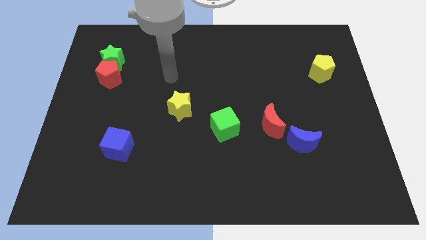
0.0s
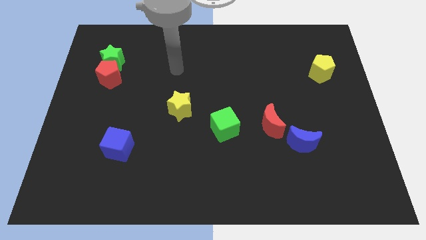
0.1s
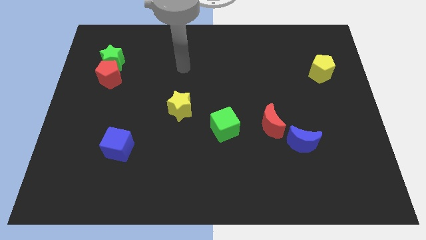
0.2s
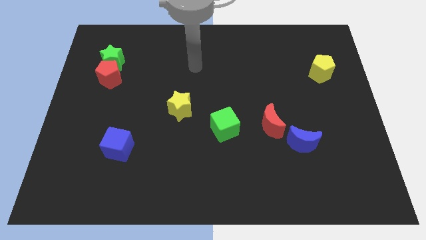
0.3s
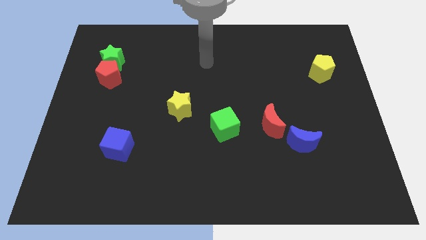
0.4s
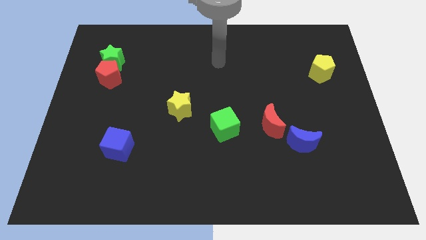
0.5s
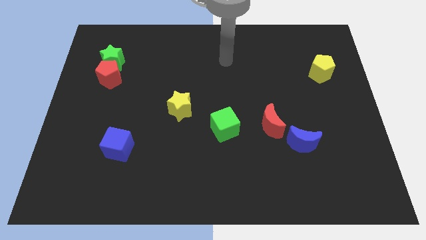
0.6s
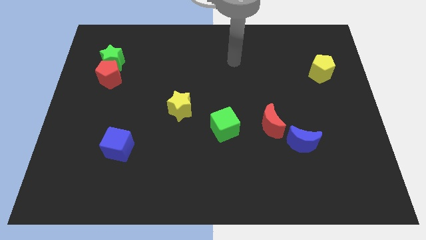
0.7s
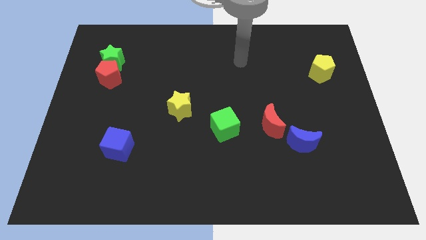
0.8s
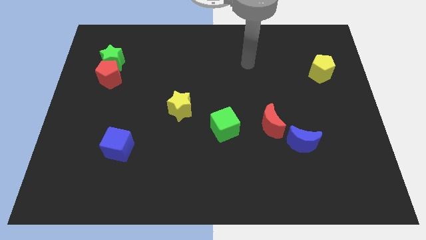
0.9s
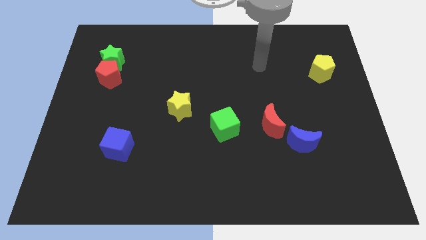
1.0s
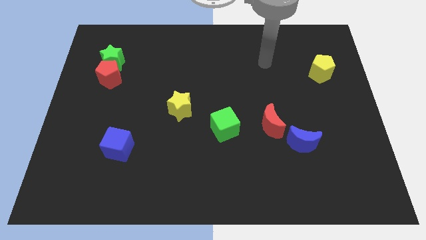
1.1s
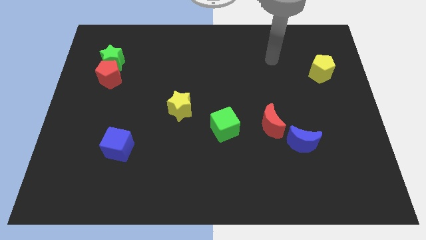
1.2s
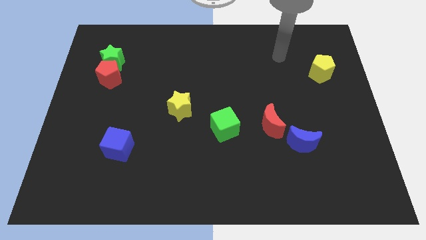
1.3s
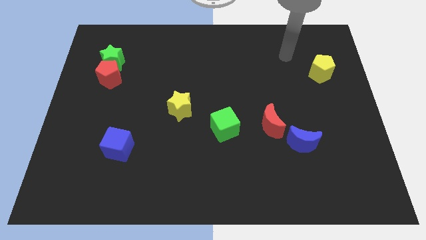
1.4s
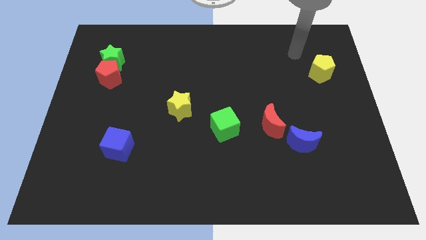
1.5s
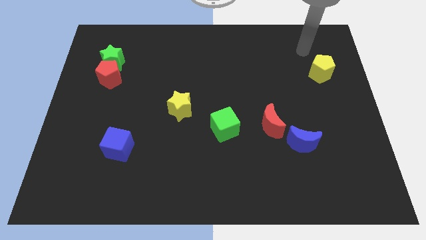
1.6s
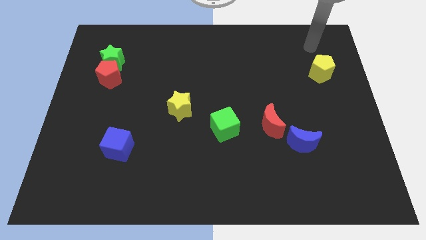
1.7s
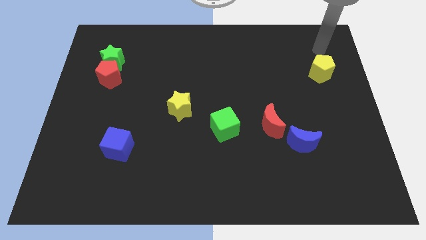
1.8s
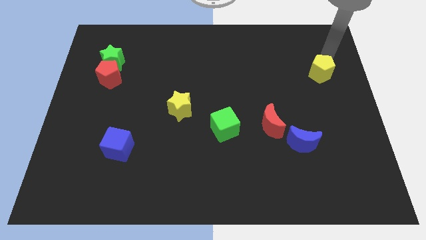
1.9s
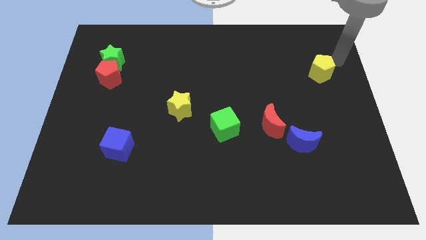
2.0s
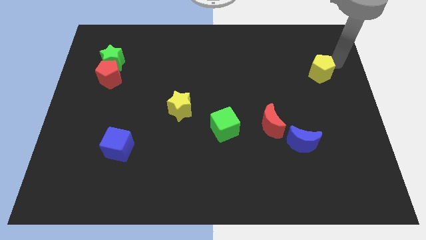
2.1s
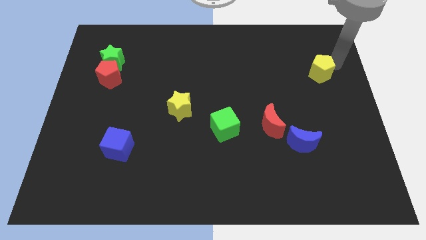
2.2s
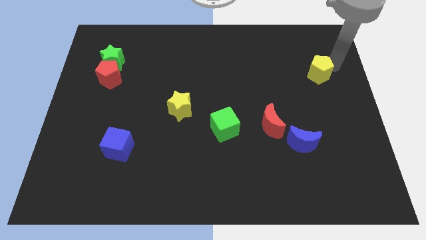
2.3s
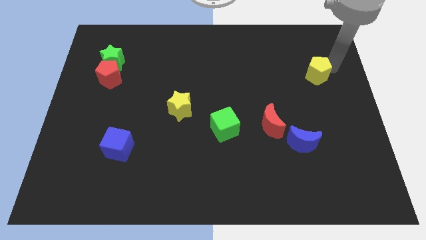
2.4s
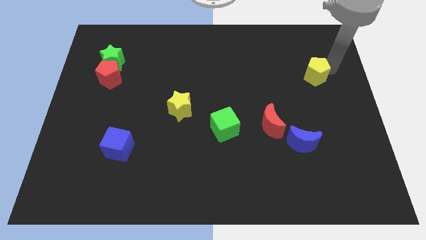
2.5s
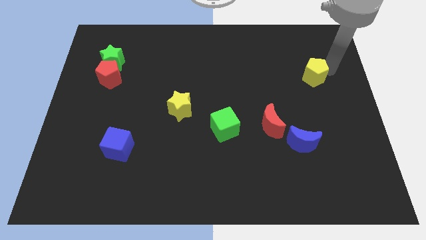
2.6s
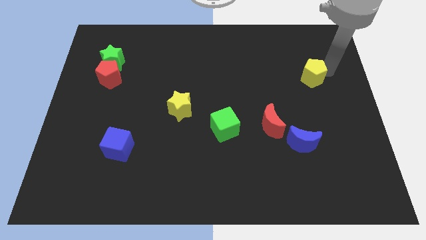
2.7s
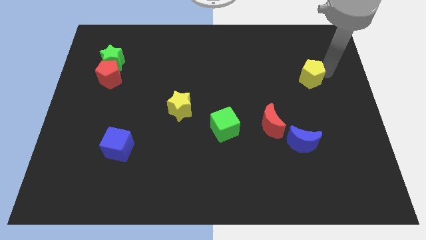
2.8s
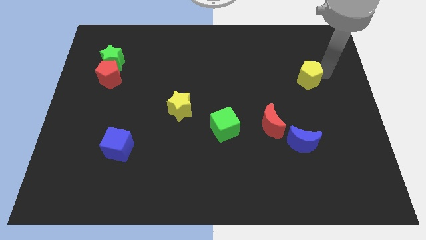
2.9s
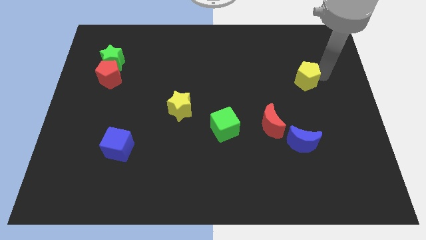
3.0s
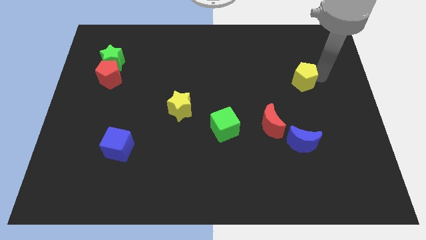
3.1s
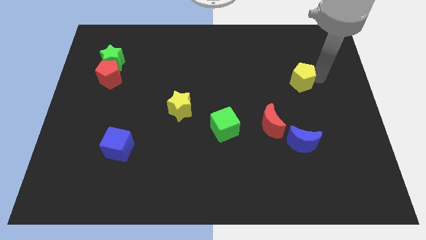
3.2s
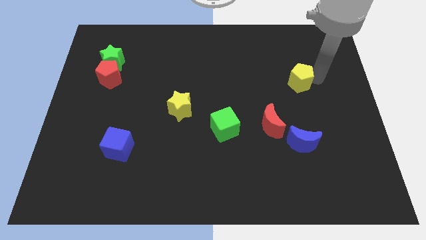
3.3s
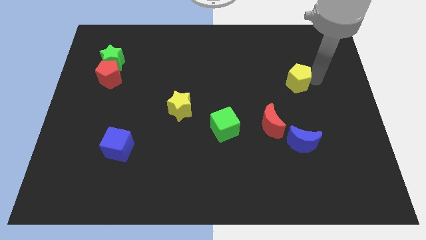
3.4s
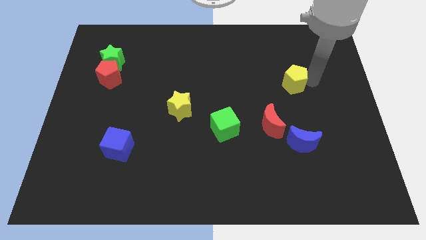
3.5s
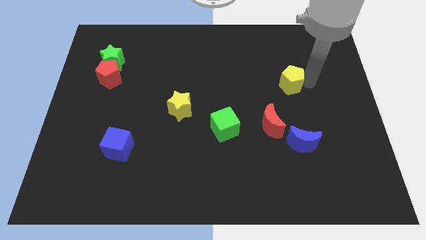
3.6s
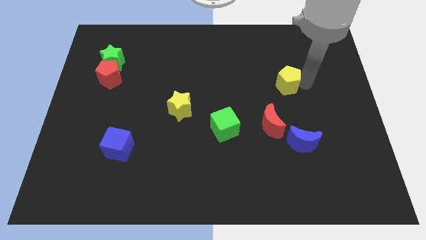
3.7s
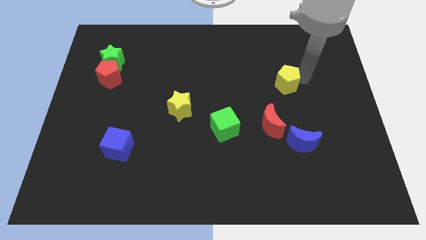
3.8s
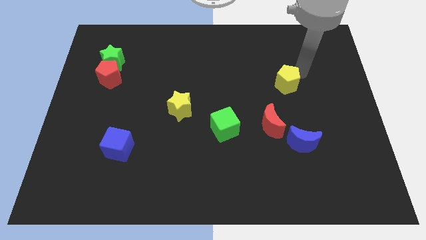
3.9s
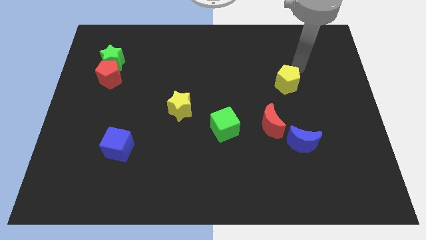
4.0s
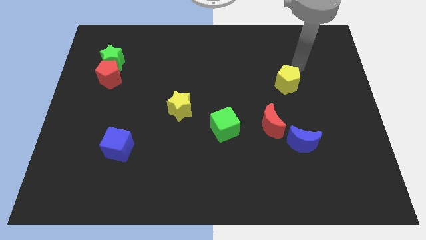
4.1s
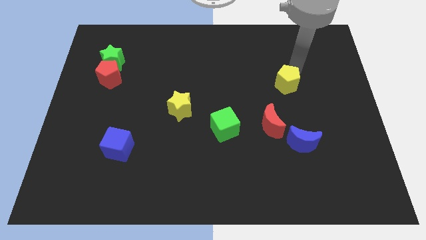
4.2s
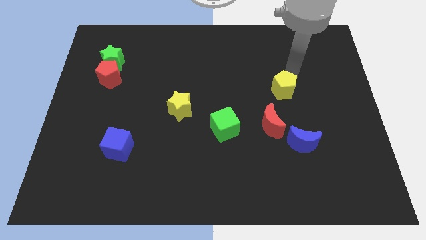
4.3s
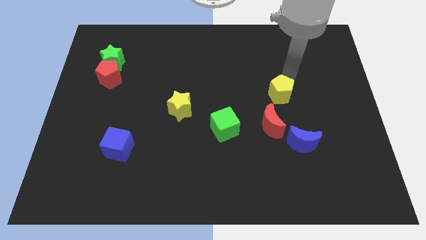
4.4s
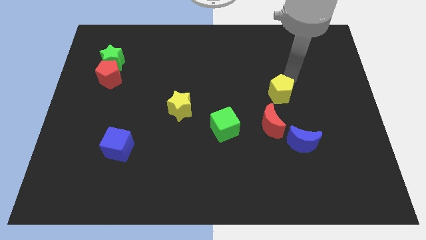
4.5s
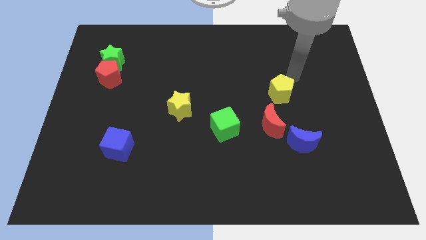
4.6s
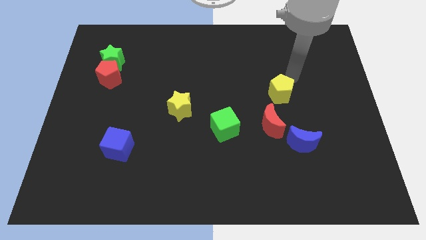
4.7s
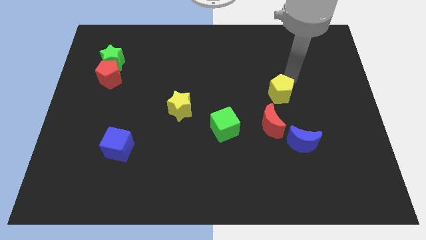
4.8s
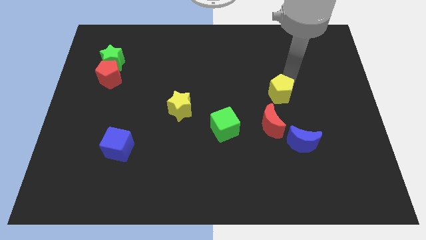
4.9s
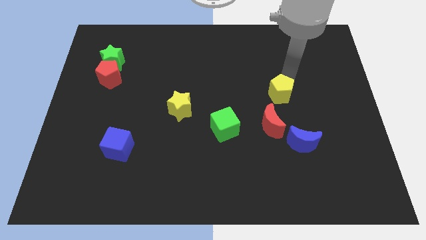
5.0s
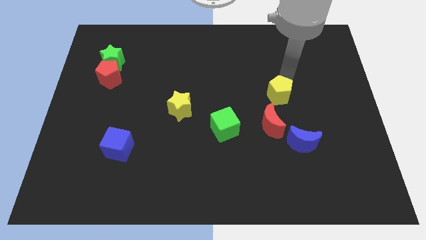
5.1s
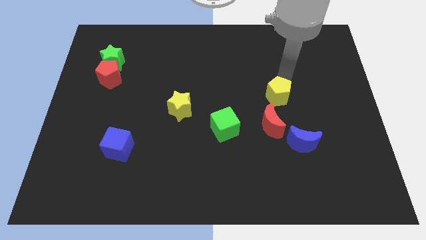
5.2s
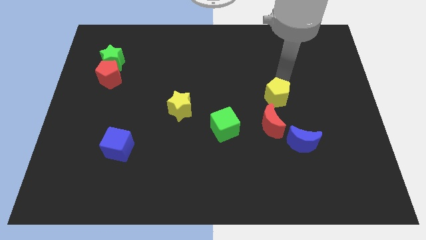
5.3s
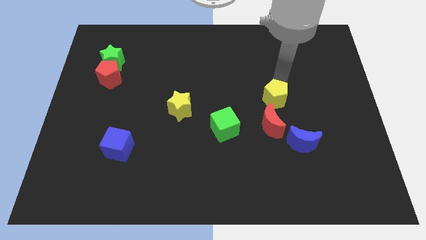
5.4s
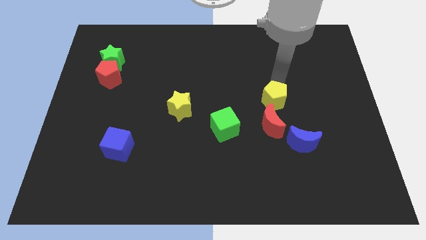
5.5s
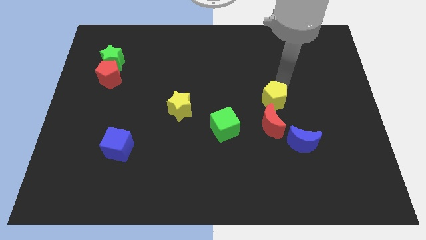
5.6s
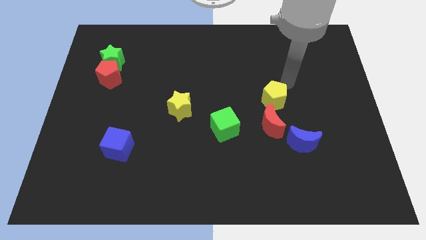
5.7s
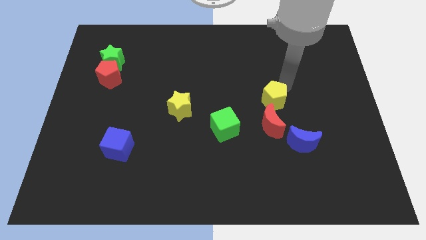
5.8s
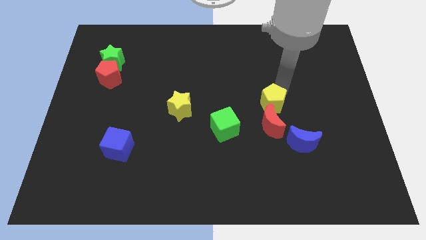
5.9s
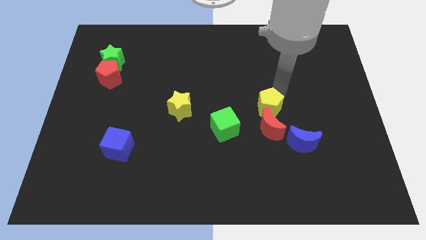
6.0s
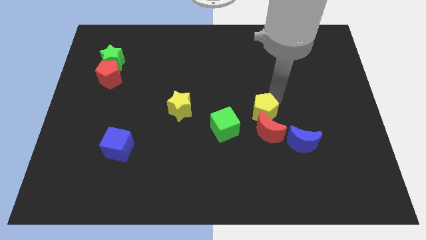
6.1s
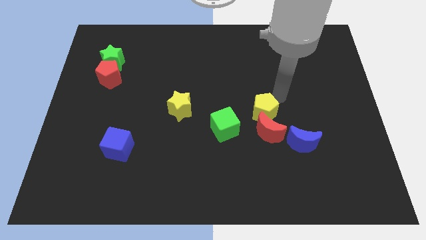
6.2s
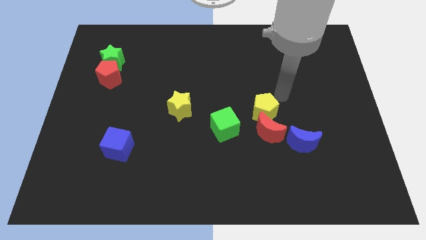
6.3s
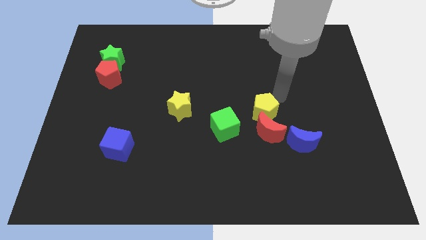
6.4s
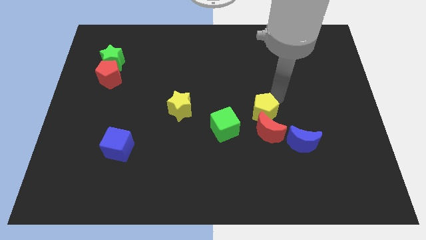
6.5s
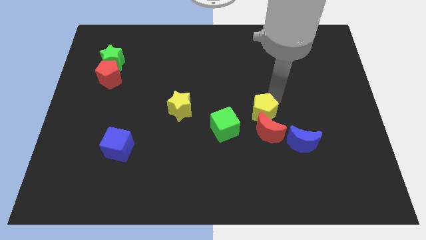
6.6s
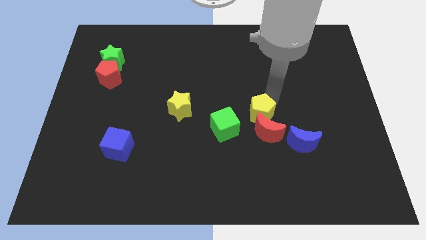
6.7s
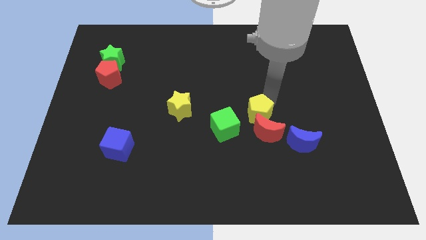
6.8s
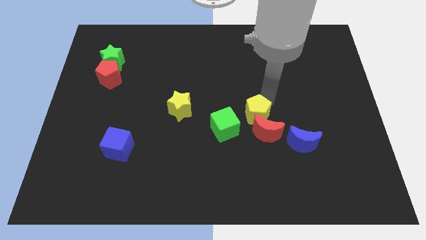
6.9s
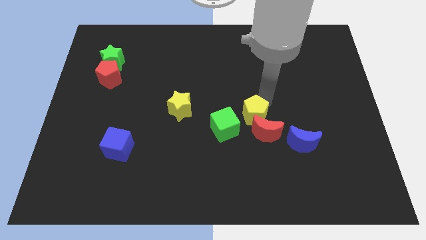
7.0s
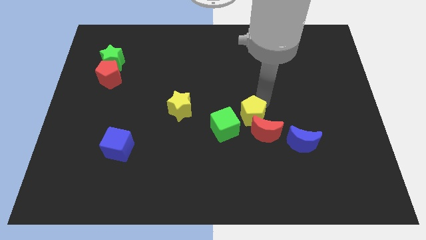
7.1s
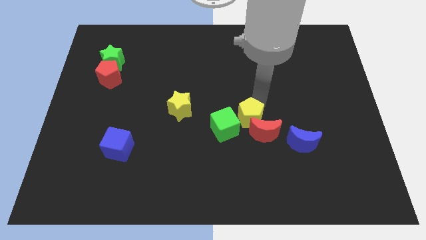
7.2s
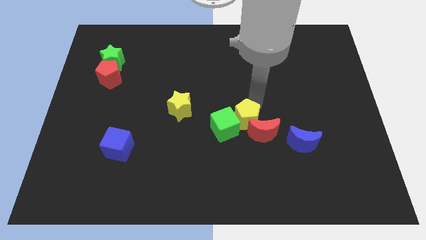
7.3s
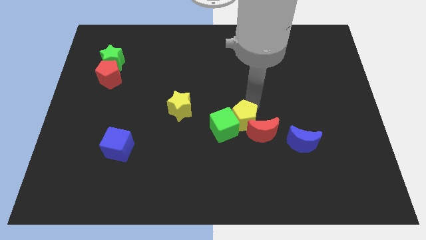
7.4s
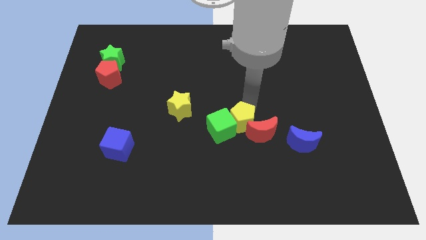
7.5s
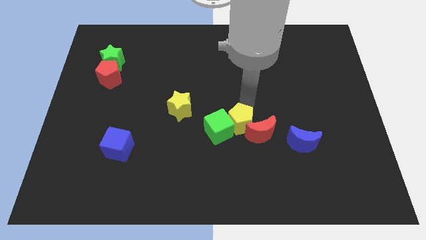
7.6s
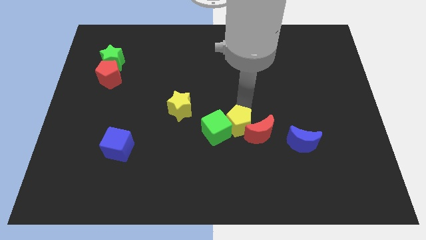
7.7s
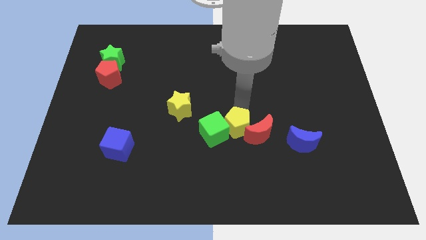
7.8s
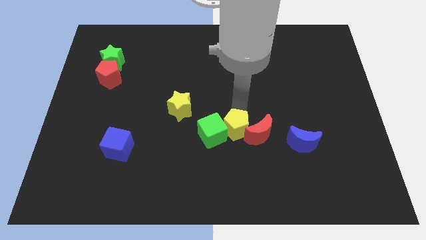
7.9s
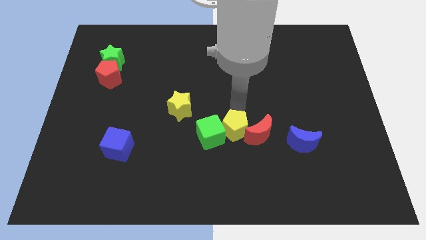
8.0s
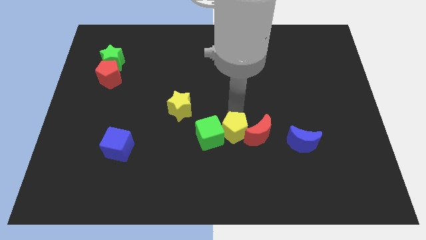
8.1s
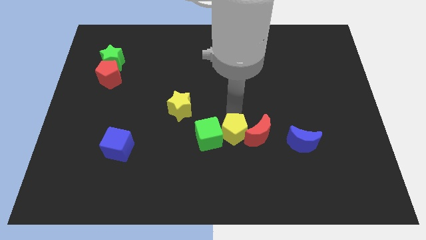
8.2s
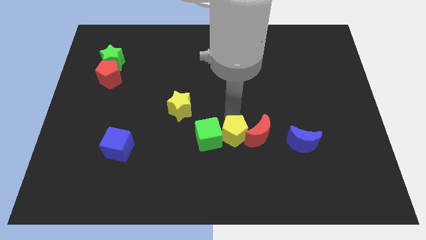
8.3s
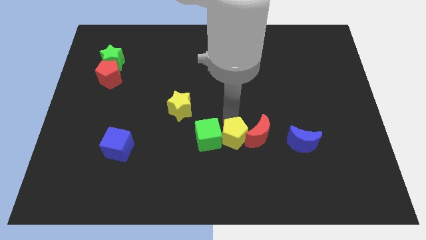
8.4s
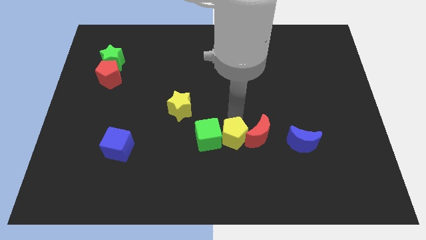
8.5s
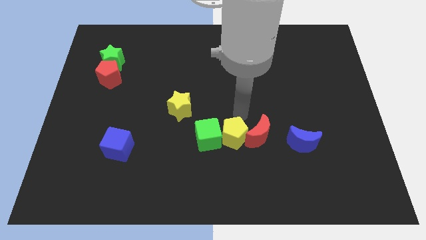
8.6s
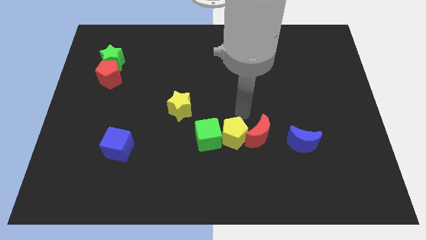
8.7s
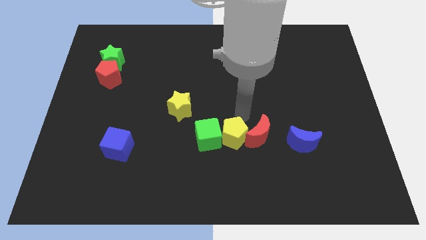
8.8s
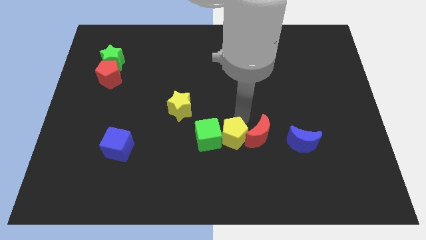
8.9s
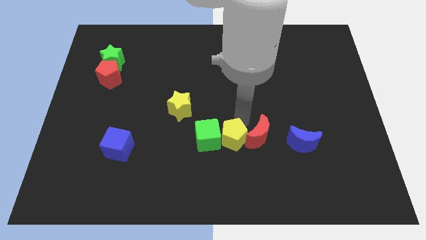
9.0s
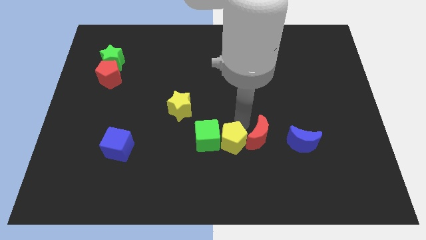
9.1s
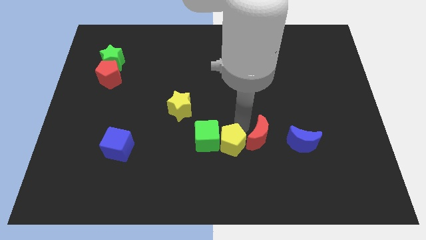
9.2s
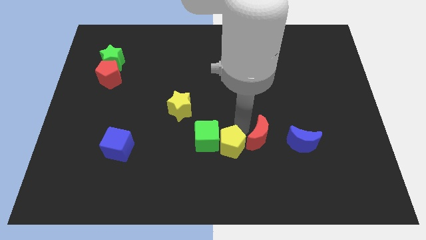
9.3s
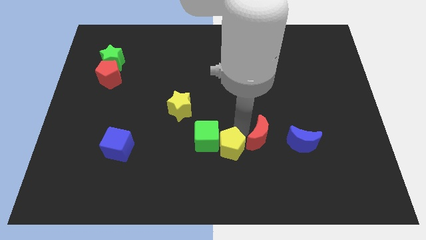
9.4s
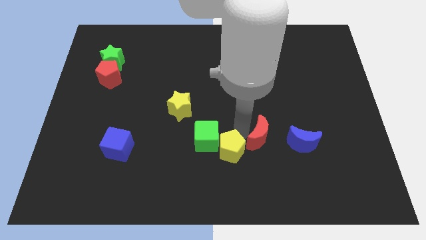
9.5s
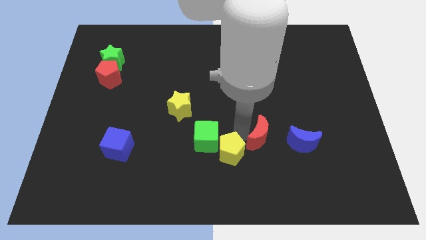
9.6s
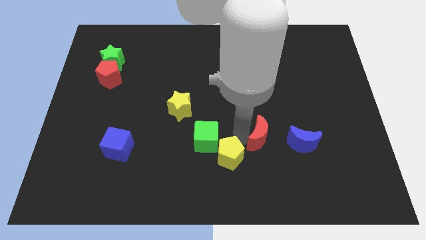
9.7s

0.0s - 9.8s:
slide the yellow pentagon to the bottom
